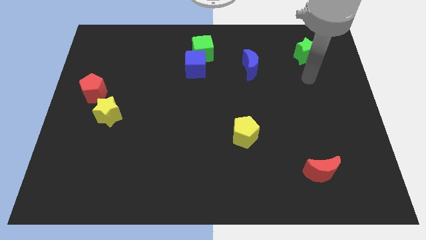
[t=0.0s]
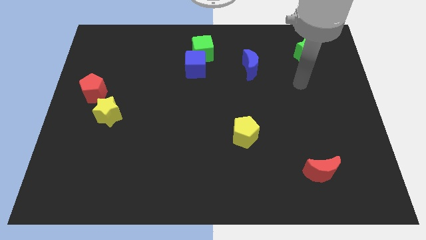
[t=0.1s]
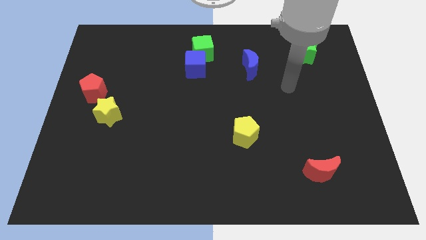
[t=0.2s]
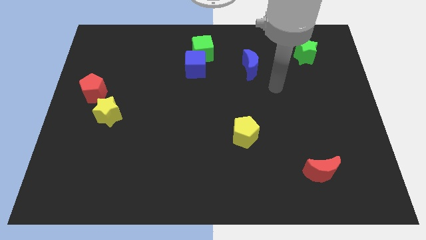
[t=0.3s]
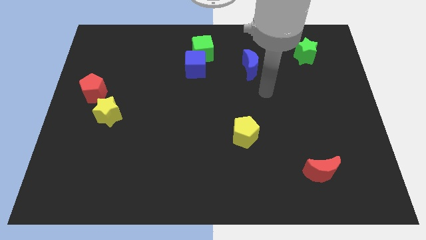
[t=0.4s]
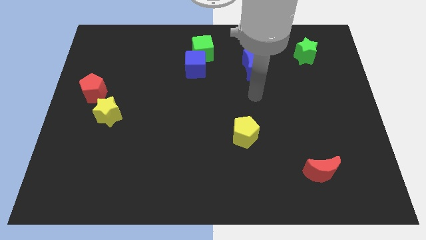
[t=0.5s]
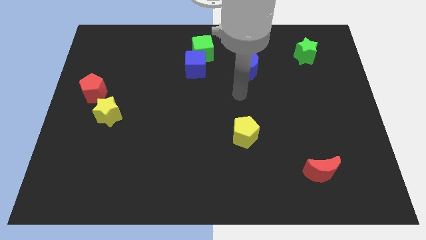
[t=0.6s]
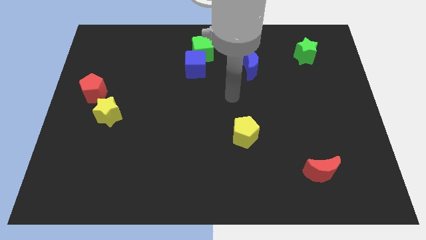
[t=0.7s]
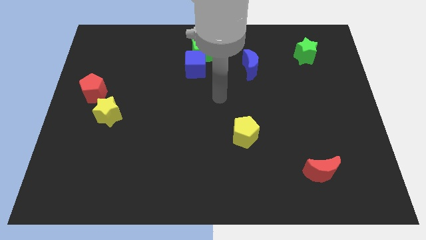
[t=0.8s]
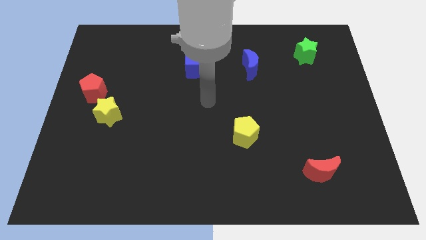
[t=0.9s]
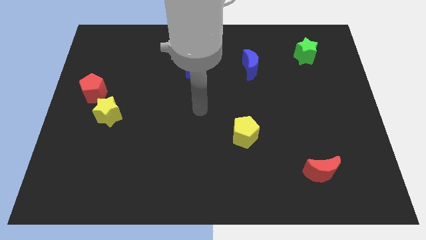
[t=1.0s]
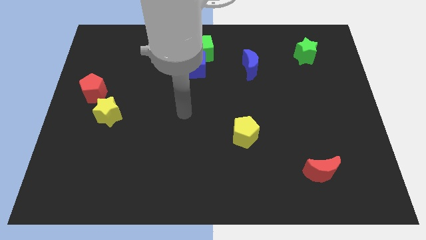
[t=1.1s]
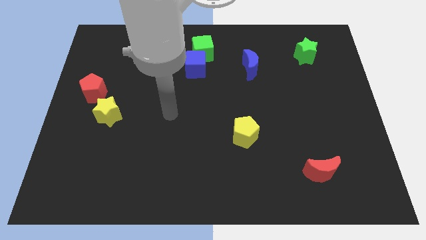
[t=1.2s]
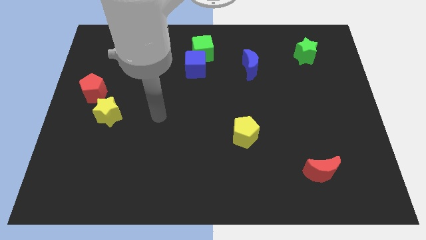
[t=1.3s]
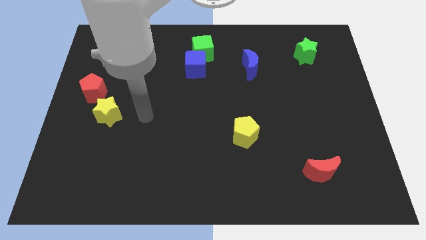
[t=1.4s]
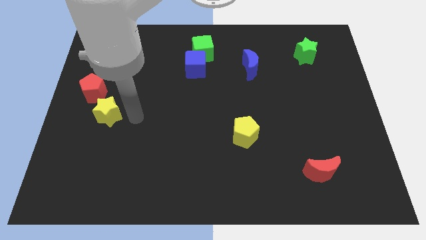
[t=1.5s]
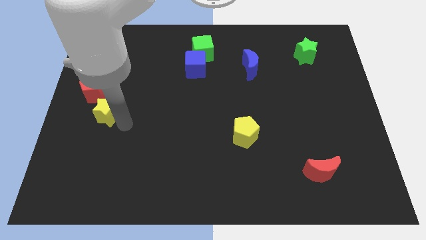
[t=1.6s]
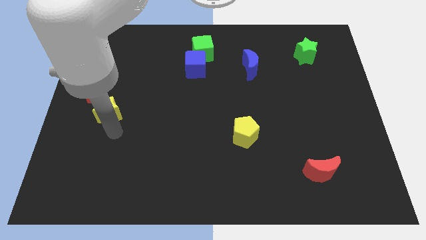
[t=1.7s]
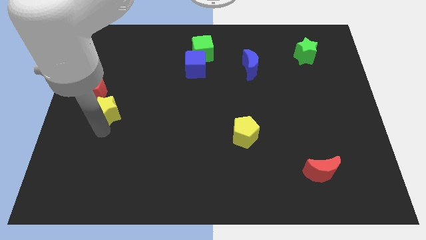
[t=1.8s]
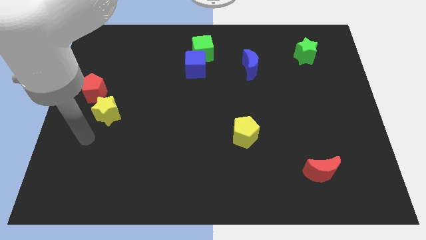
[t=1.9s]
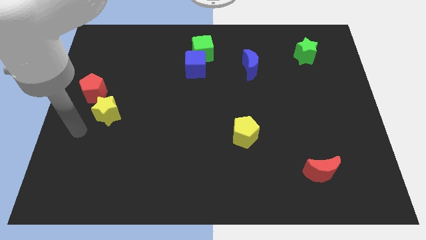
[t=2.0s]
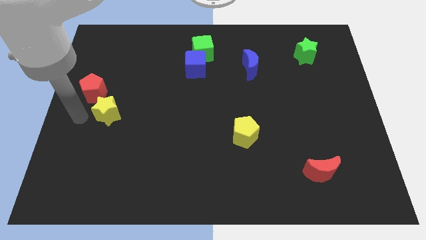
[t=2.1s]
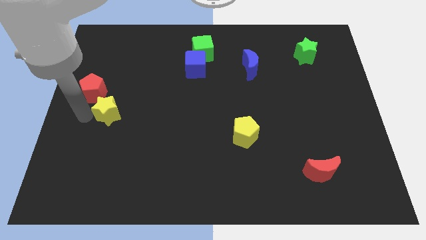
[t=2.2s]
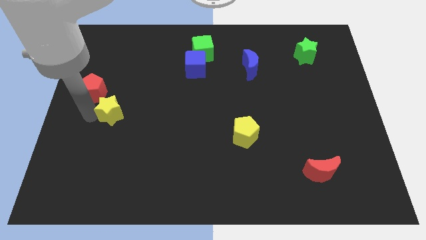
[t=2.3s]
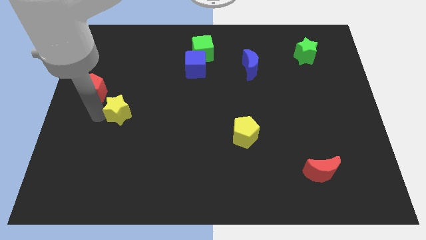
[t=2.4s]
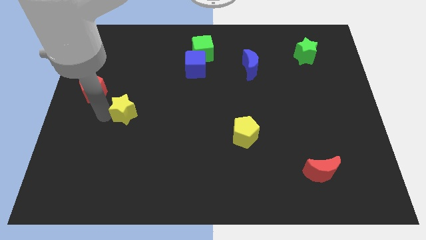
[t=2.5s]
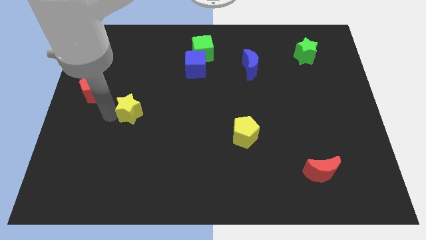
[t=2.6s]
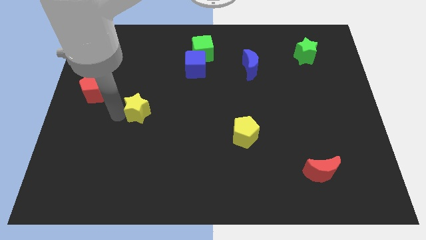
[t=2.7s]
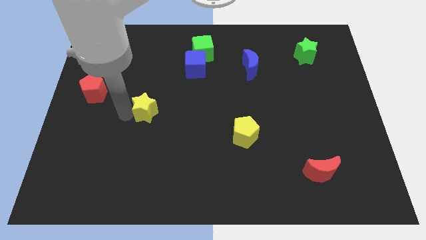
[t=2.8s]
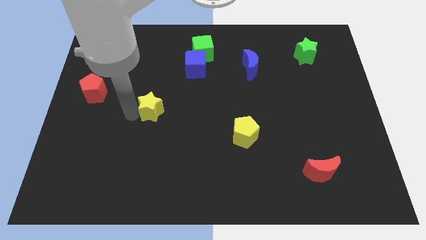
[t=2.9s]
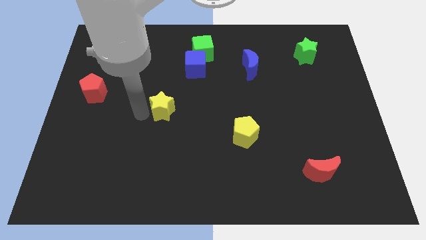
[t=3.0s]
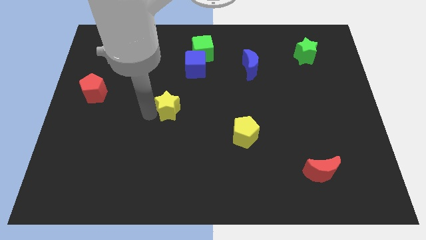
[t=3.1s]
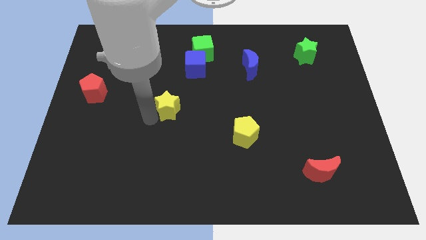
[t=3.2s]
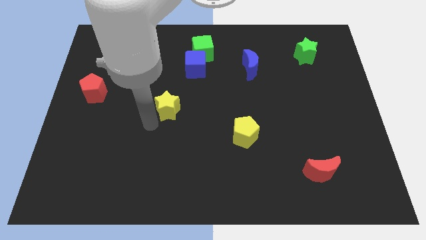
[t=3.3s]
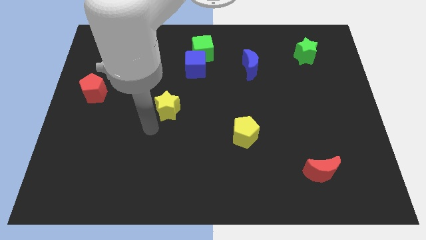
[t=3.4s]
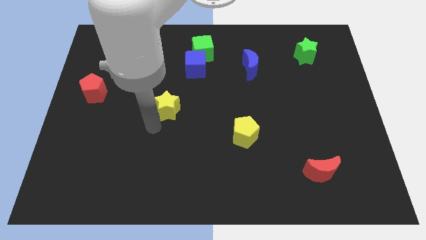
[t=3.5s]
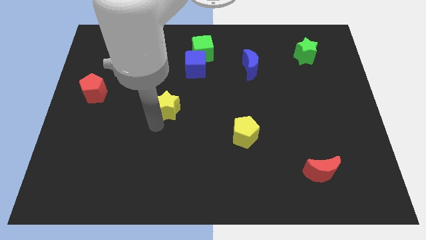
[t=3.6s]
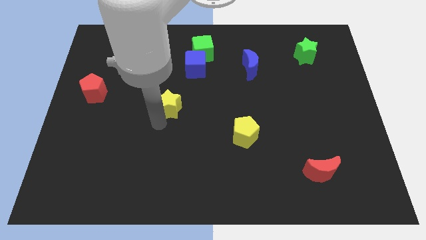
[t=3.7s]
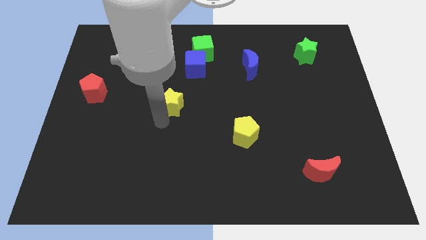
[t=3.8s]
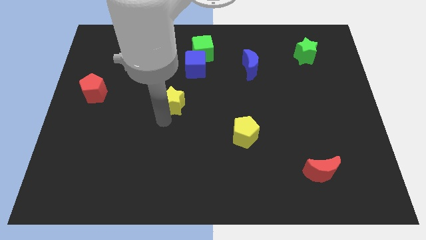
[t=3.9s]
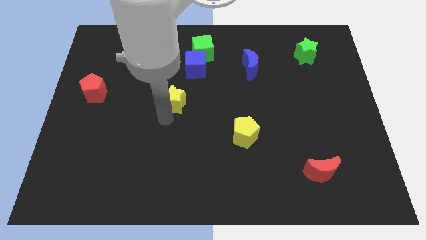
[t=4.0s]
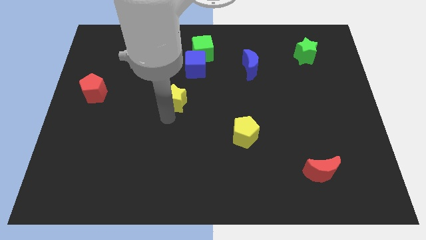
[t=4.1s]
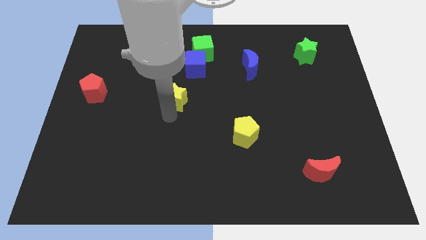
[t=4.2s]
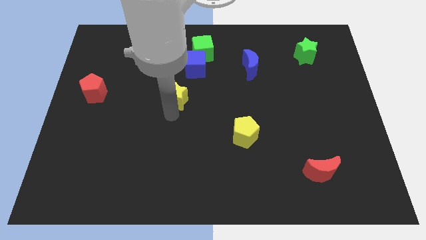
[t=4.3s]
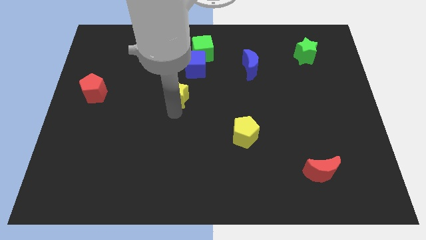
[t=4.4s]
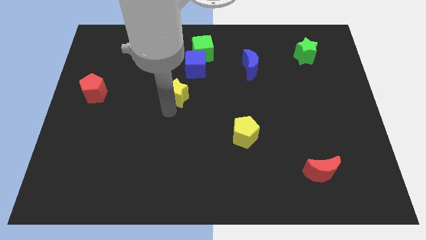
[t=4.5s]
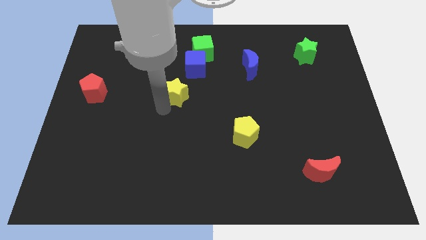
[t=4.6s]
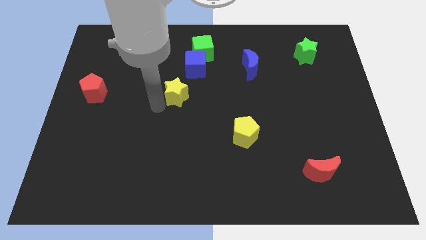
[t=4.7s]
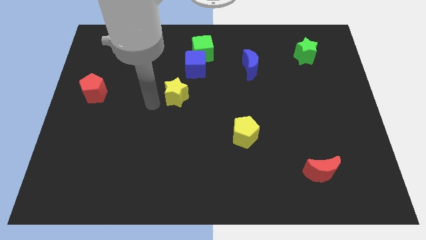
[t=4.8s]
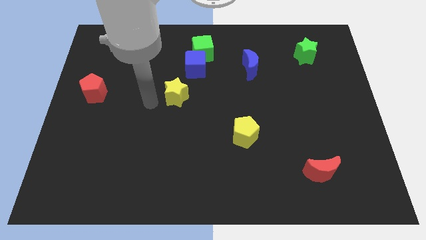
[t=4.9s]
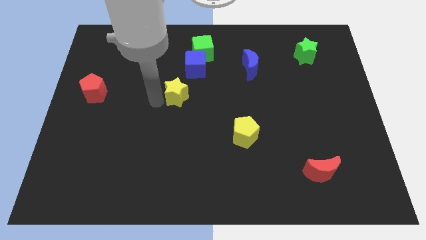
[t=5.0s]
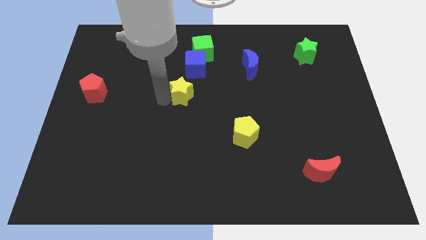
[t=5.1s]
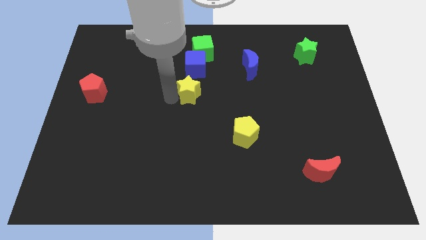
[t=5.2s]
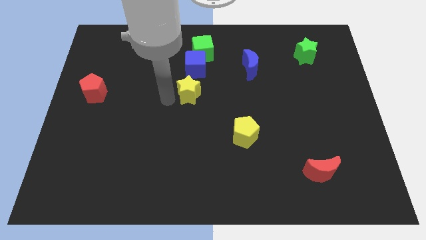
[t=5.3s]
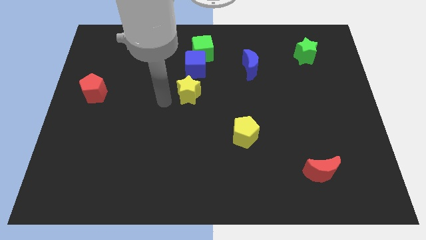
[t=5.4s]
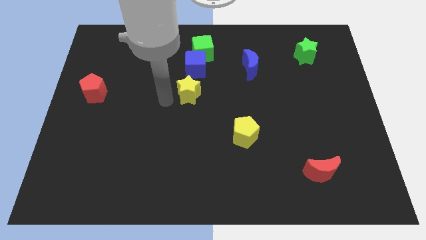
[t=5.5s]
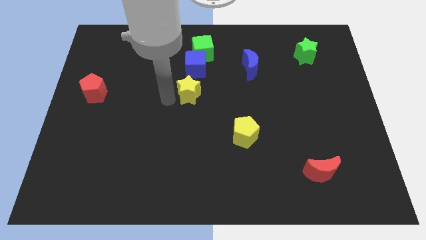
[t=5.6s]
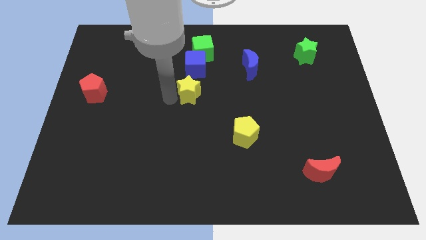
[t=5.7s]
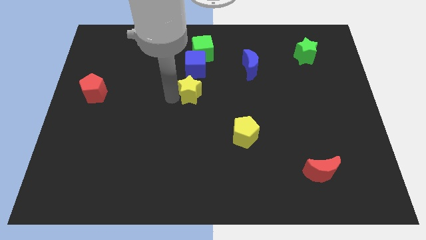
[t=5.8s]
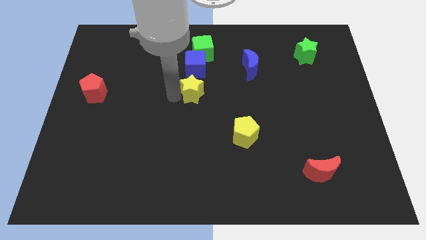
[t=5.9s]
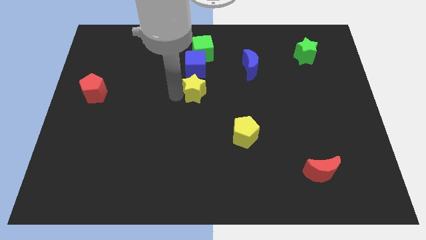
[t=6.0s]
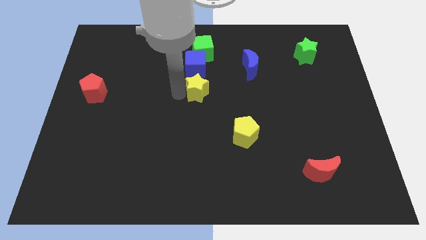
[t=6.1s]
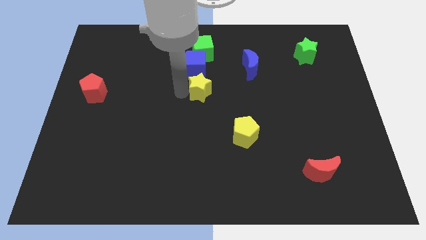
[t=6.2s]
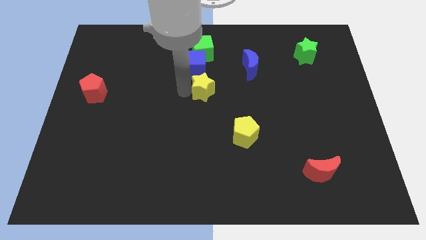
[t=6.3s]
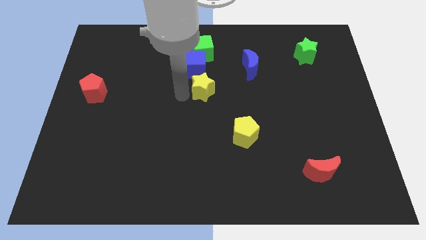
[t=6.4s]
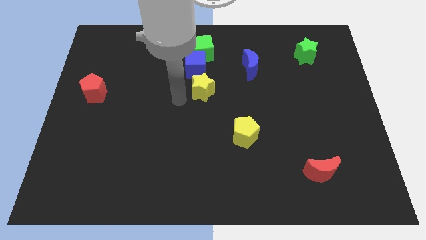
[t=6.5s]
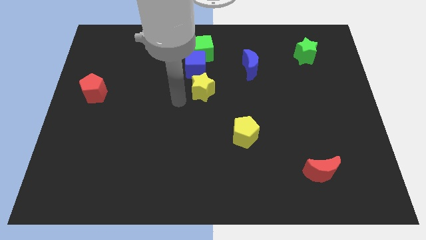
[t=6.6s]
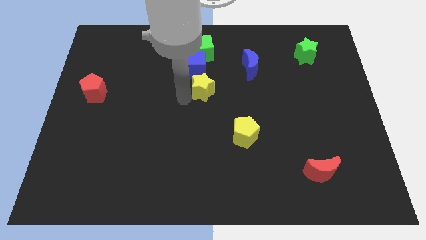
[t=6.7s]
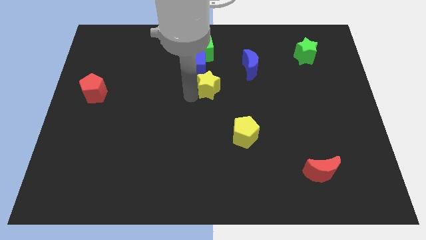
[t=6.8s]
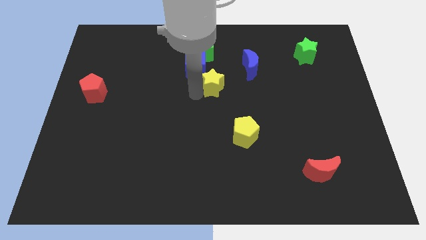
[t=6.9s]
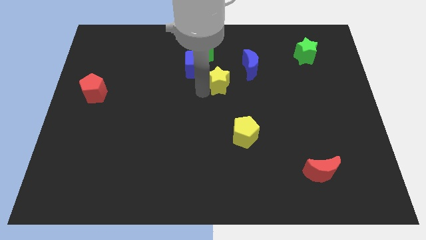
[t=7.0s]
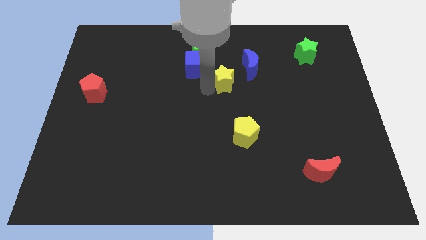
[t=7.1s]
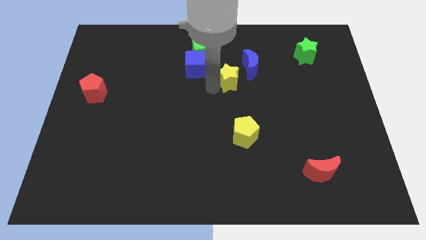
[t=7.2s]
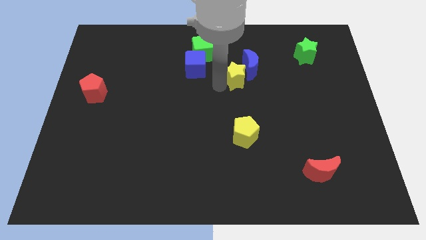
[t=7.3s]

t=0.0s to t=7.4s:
push the yellow star next to the blue moon

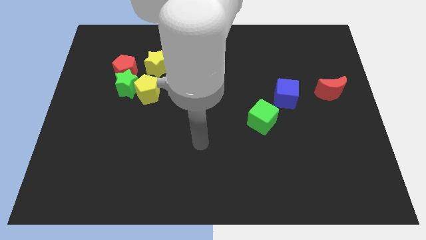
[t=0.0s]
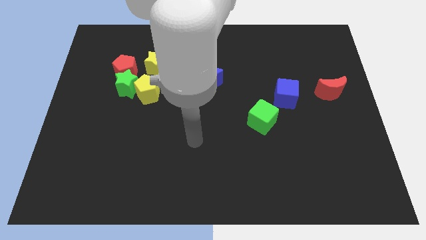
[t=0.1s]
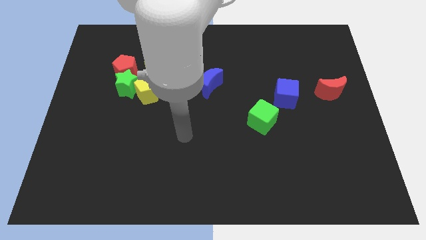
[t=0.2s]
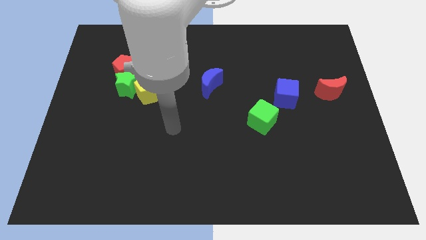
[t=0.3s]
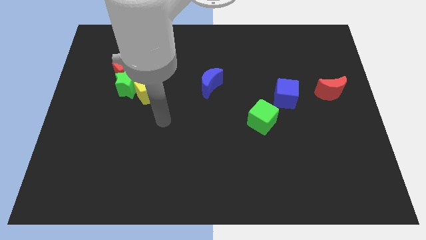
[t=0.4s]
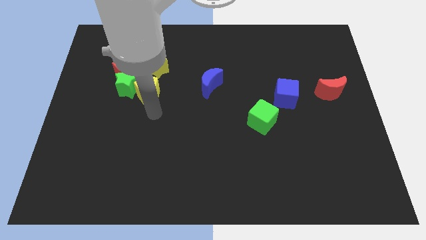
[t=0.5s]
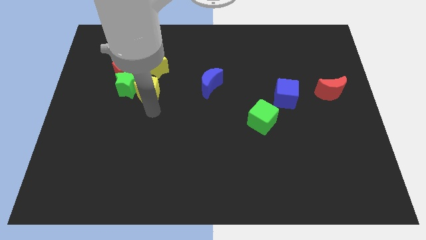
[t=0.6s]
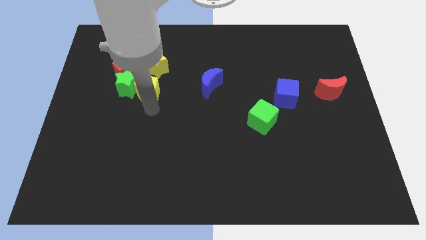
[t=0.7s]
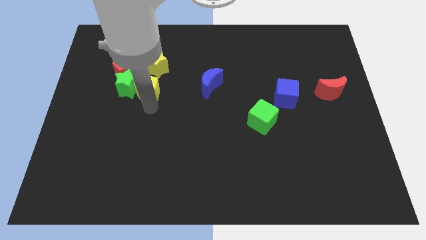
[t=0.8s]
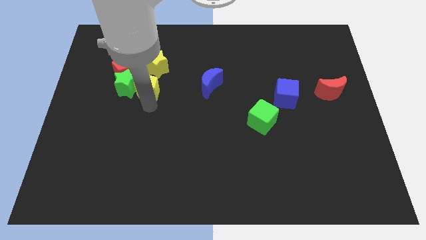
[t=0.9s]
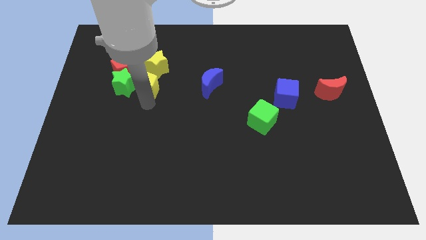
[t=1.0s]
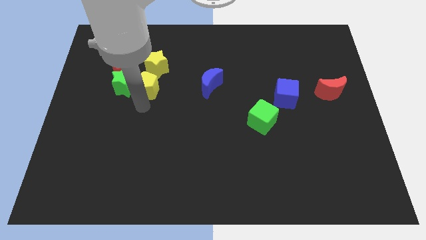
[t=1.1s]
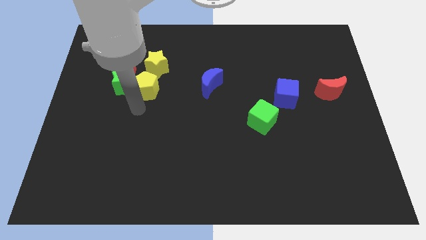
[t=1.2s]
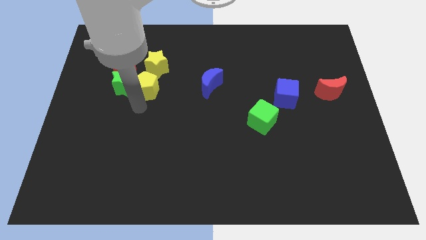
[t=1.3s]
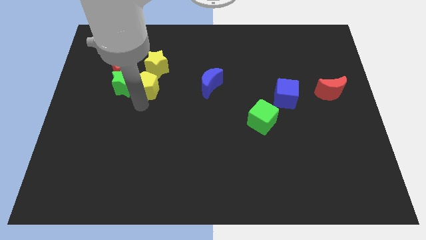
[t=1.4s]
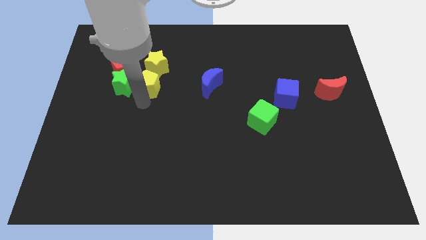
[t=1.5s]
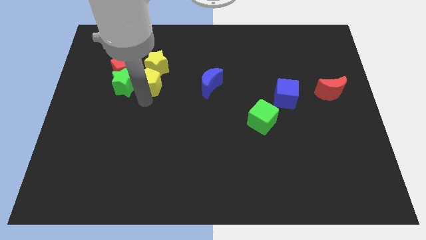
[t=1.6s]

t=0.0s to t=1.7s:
move the yellow pentagon next to the yellow star
